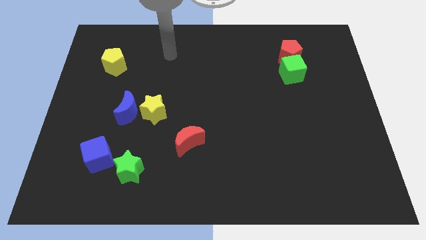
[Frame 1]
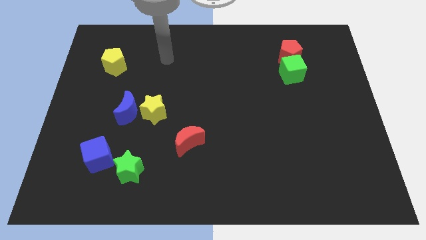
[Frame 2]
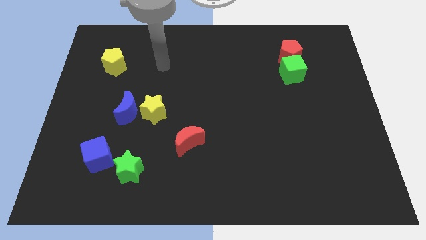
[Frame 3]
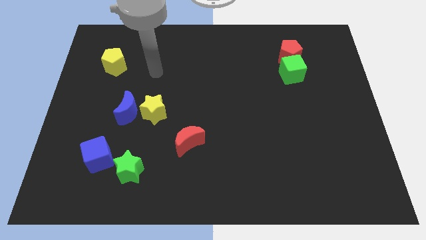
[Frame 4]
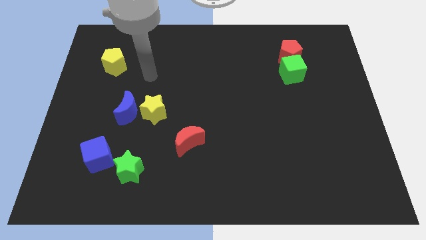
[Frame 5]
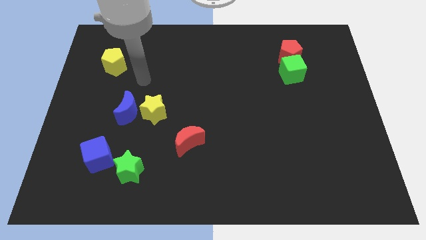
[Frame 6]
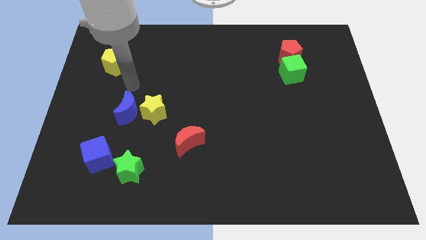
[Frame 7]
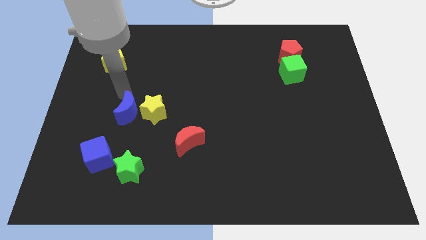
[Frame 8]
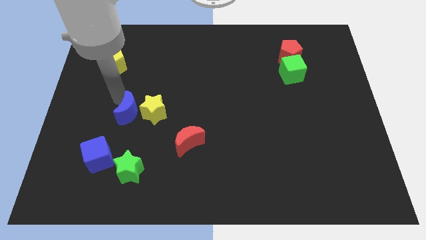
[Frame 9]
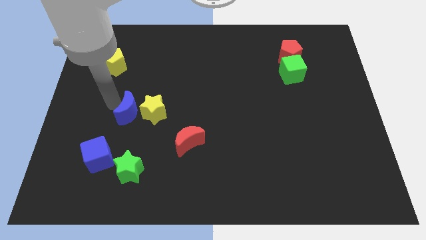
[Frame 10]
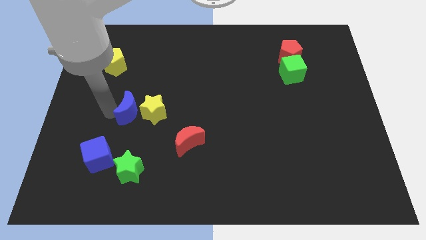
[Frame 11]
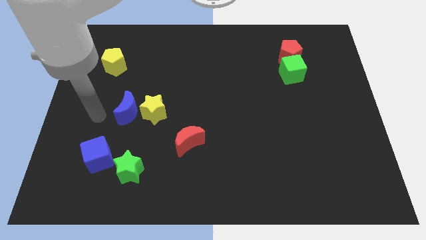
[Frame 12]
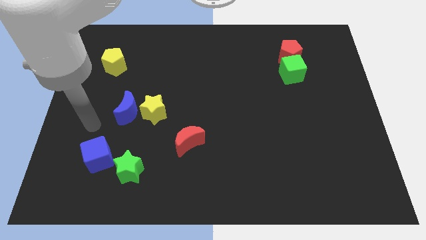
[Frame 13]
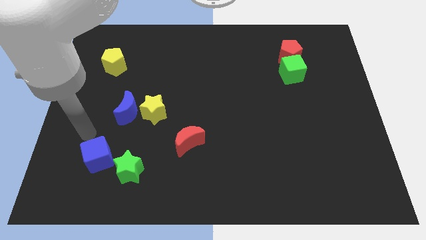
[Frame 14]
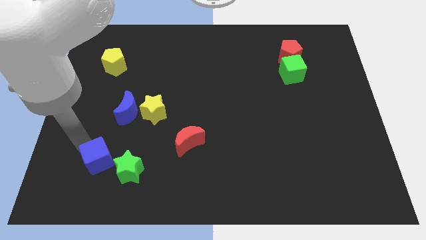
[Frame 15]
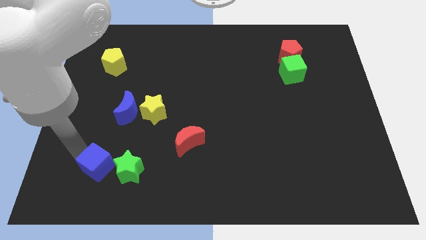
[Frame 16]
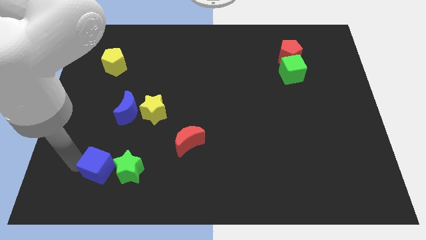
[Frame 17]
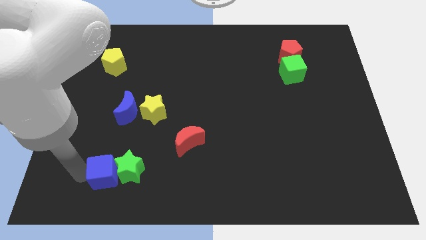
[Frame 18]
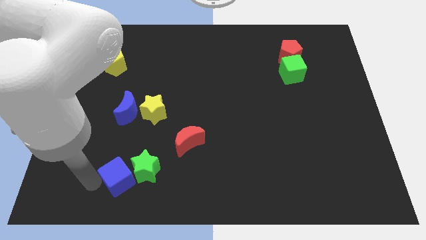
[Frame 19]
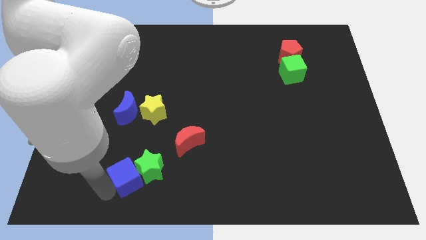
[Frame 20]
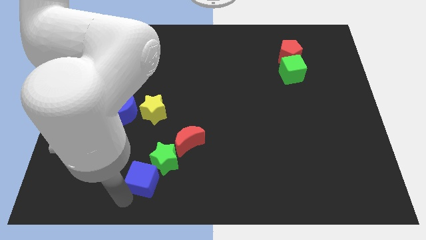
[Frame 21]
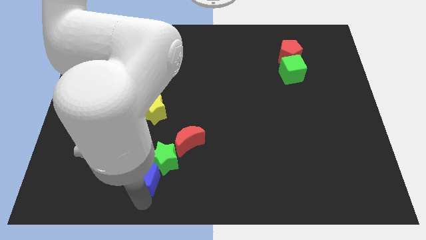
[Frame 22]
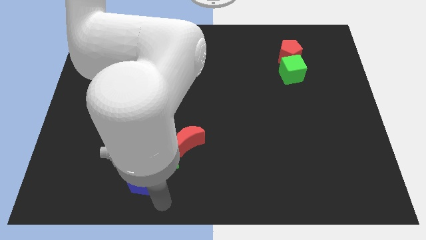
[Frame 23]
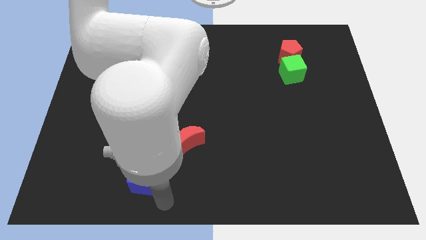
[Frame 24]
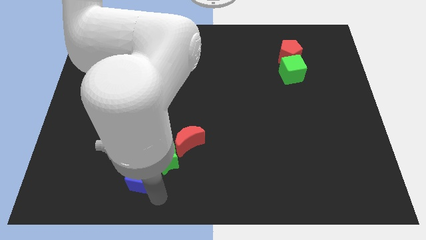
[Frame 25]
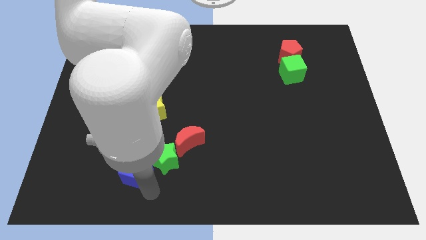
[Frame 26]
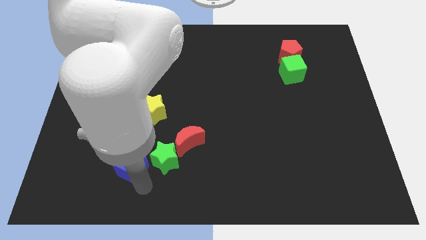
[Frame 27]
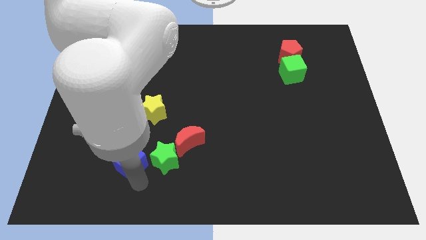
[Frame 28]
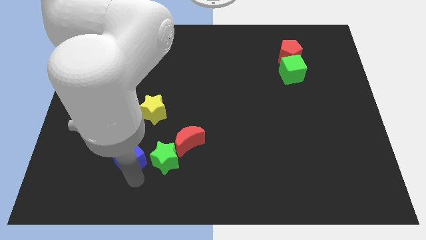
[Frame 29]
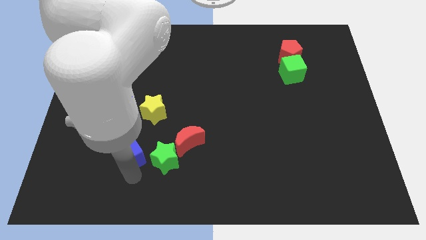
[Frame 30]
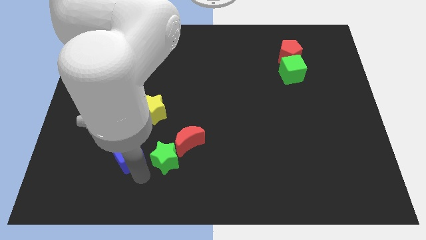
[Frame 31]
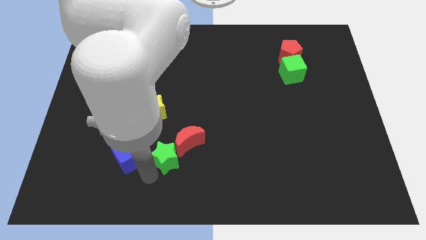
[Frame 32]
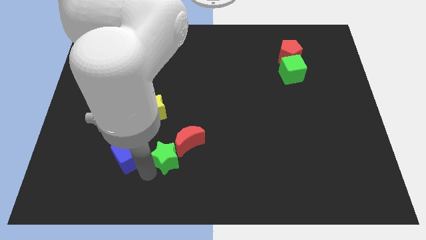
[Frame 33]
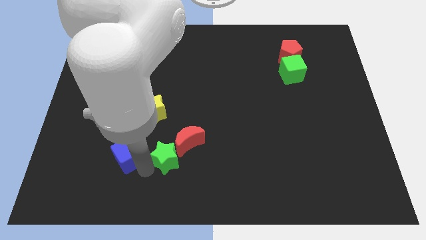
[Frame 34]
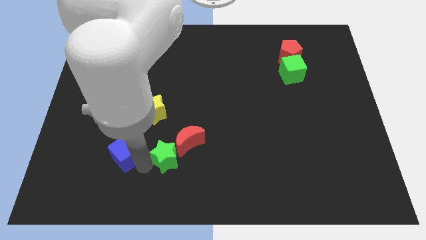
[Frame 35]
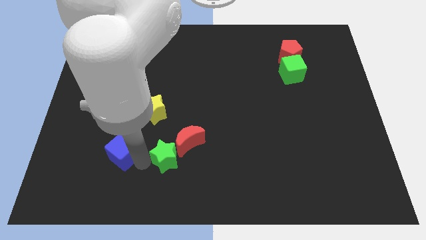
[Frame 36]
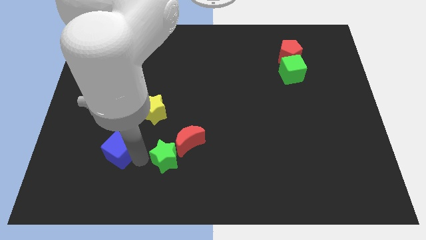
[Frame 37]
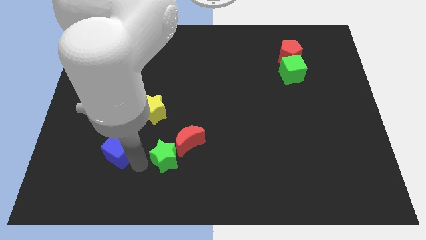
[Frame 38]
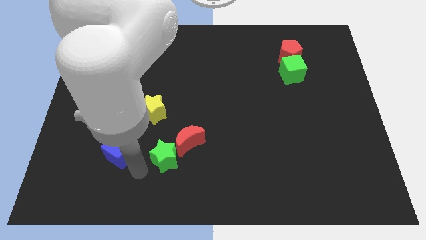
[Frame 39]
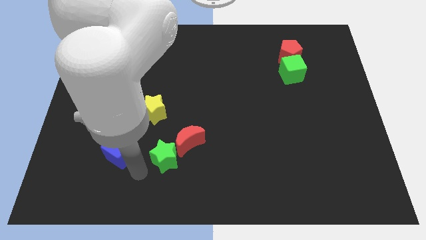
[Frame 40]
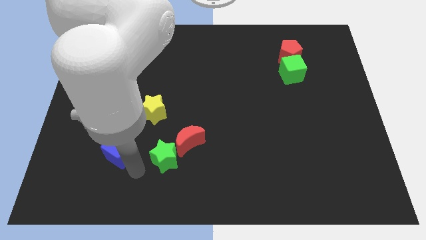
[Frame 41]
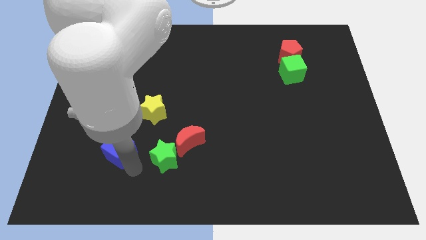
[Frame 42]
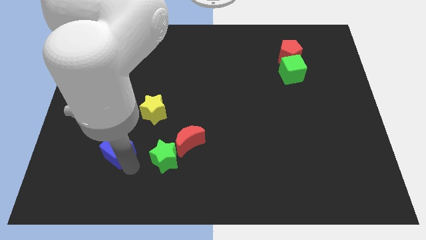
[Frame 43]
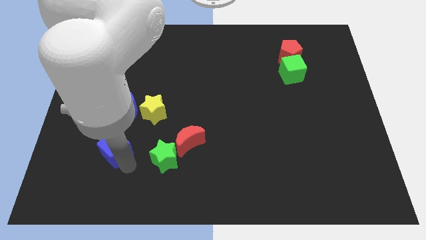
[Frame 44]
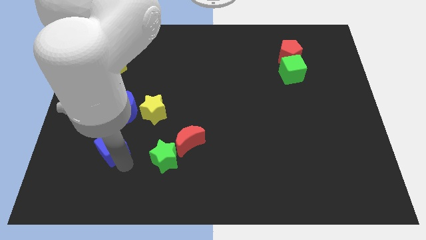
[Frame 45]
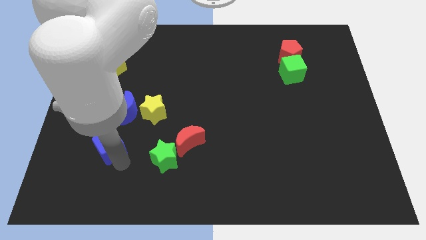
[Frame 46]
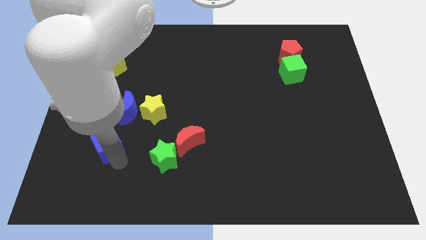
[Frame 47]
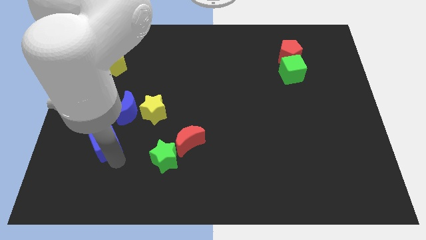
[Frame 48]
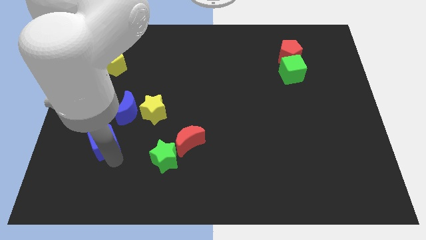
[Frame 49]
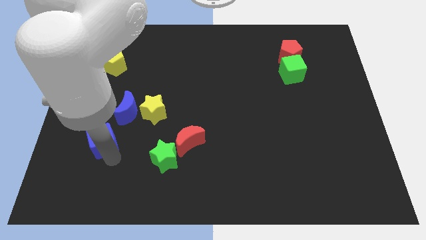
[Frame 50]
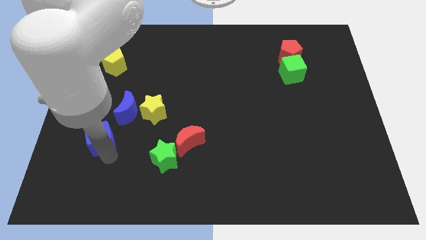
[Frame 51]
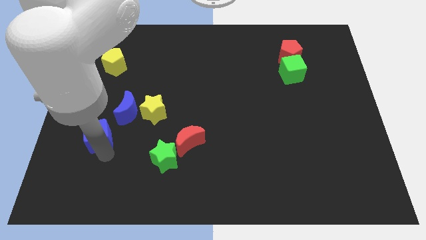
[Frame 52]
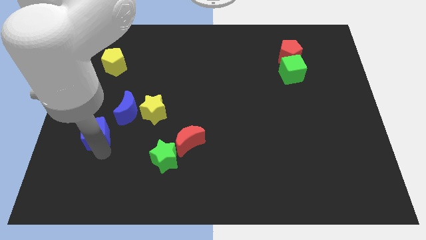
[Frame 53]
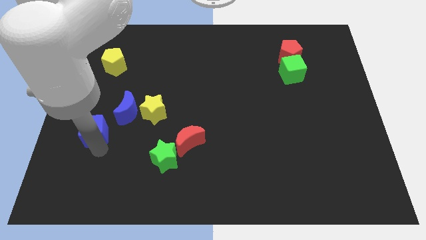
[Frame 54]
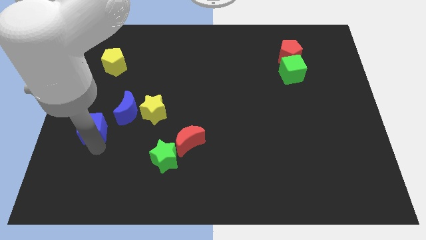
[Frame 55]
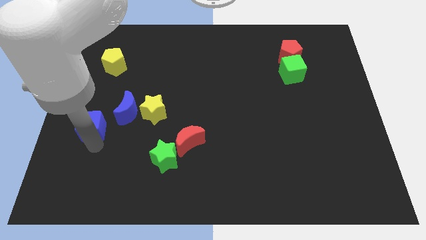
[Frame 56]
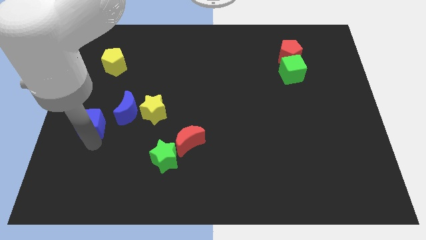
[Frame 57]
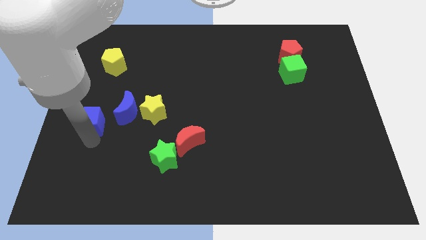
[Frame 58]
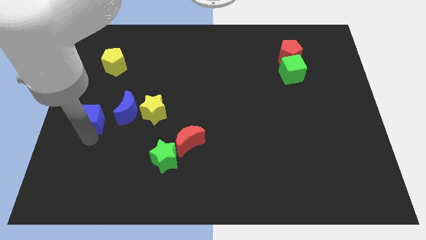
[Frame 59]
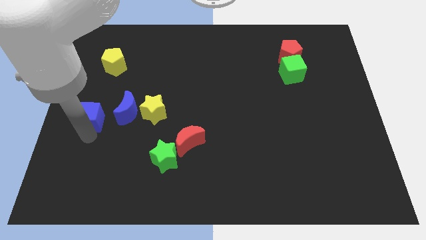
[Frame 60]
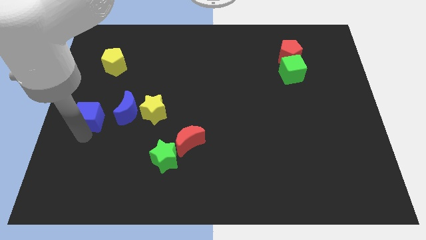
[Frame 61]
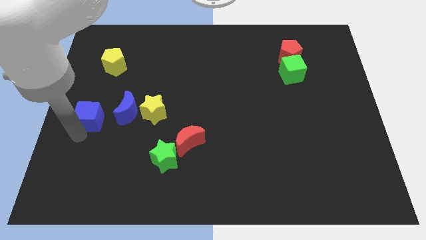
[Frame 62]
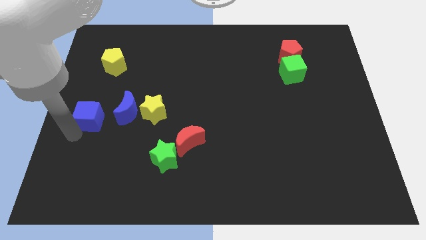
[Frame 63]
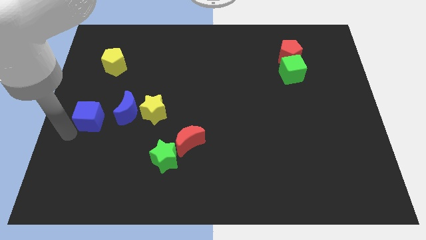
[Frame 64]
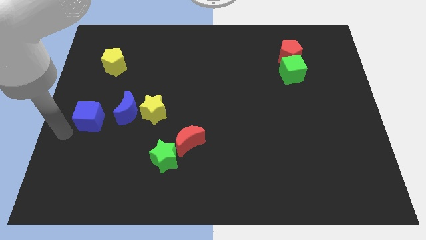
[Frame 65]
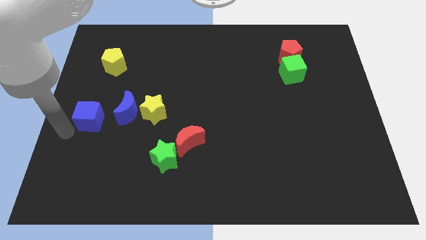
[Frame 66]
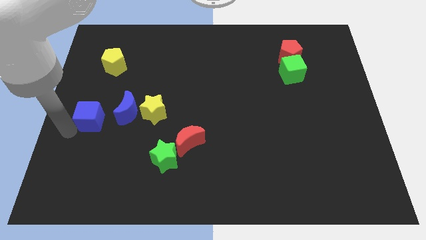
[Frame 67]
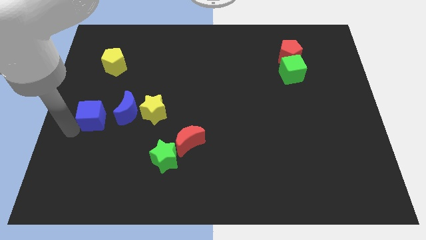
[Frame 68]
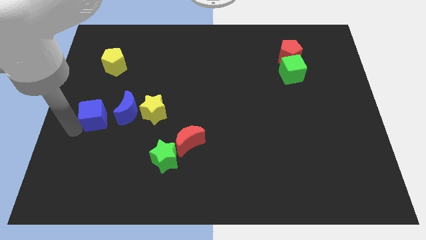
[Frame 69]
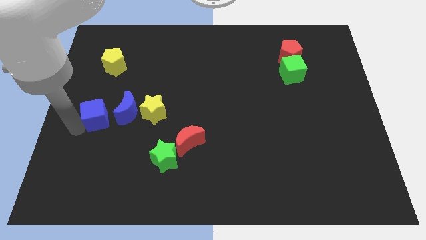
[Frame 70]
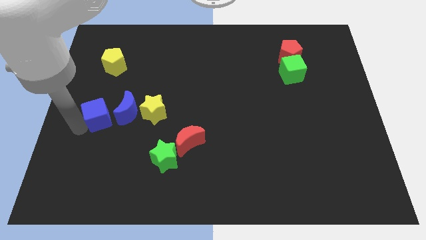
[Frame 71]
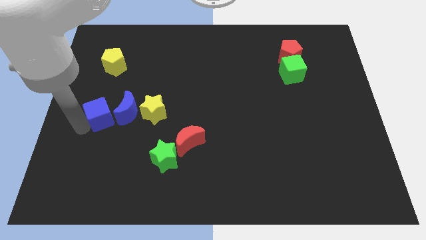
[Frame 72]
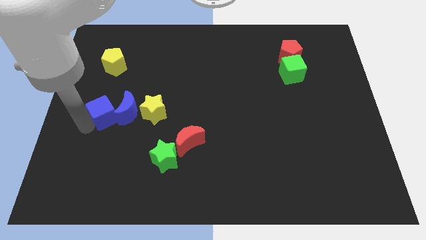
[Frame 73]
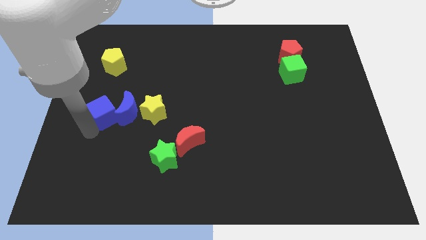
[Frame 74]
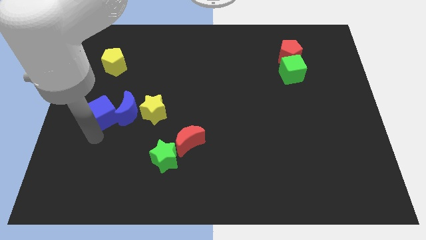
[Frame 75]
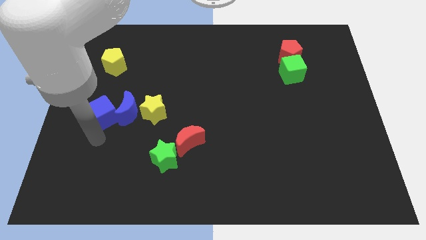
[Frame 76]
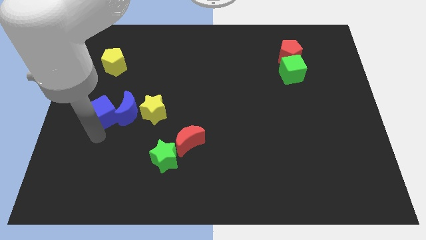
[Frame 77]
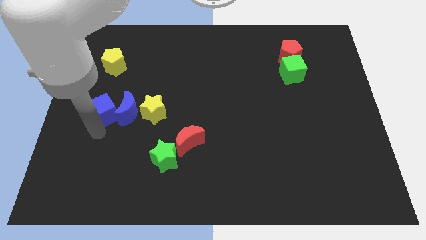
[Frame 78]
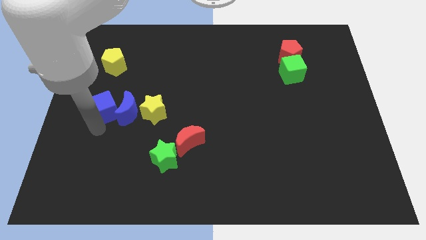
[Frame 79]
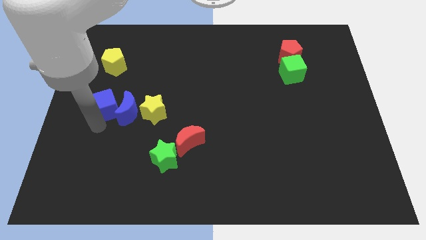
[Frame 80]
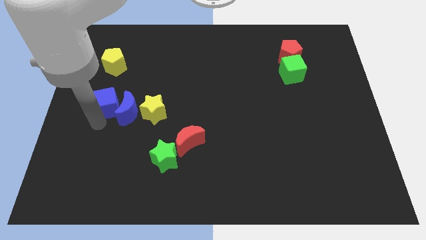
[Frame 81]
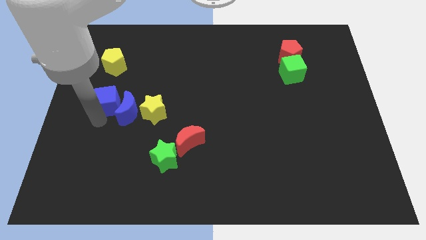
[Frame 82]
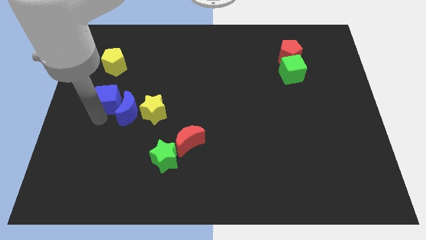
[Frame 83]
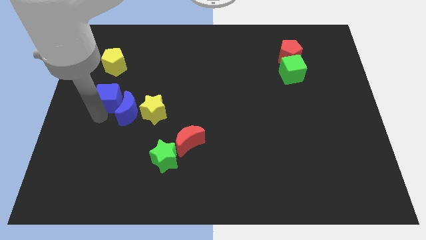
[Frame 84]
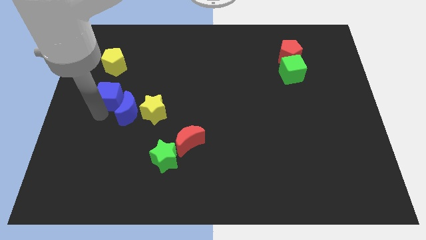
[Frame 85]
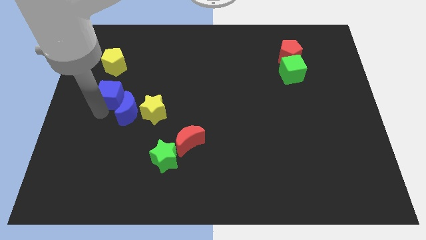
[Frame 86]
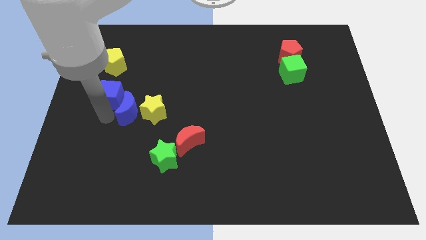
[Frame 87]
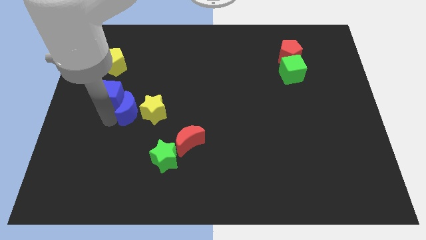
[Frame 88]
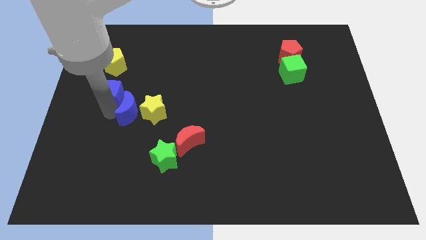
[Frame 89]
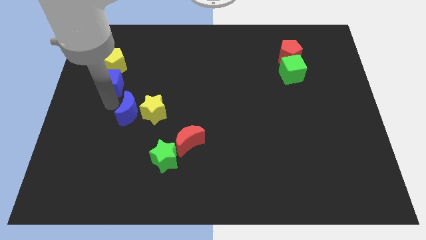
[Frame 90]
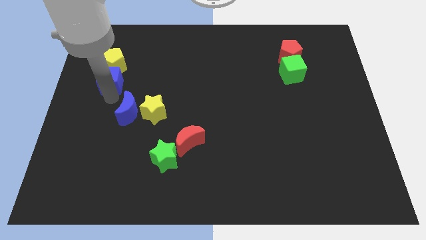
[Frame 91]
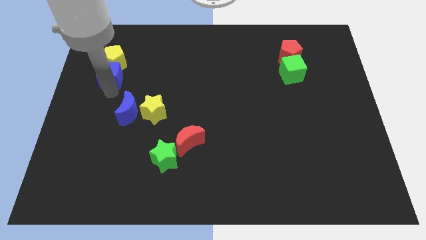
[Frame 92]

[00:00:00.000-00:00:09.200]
move the blue cube next to the yellow pentagon
